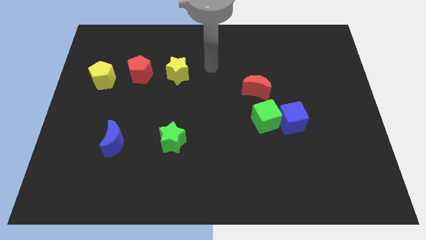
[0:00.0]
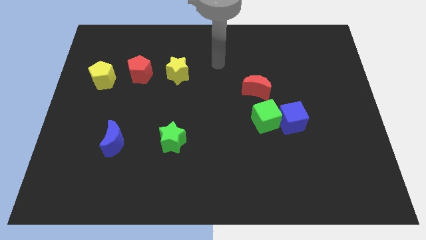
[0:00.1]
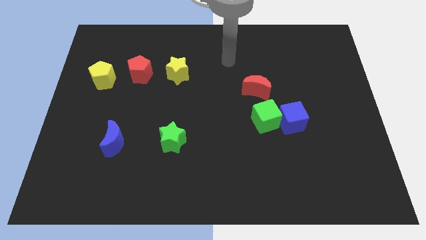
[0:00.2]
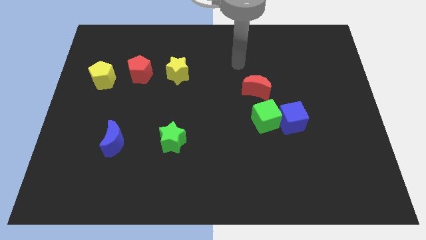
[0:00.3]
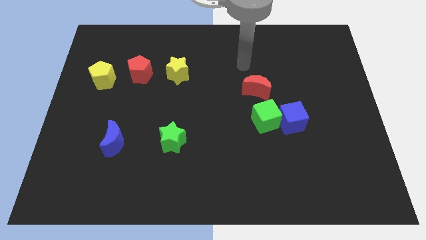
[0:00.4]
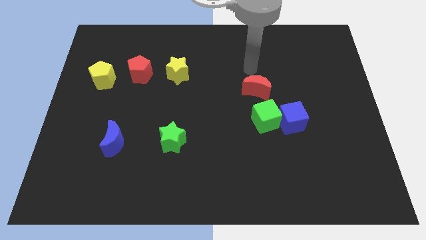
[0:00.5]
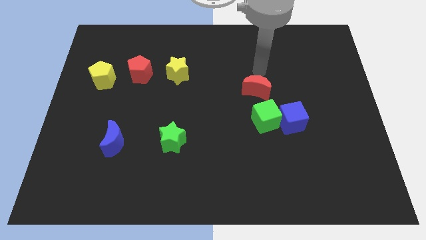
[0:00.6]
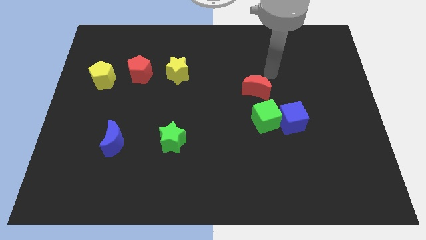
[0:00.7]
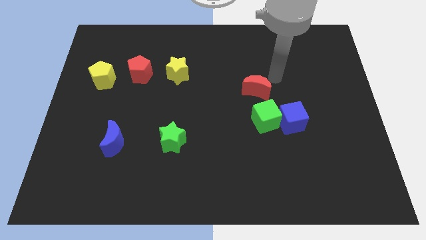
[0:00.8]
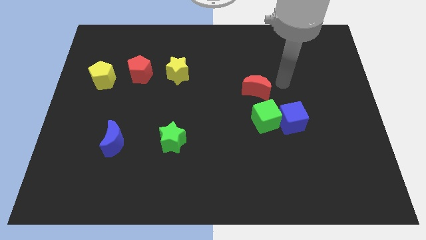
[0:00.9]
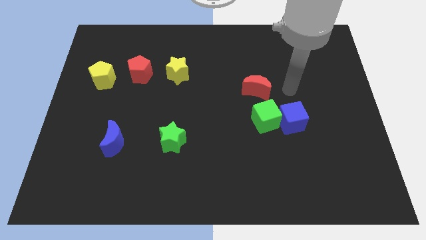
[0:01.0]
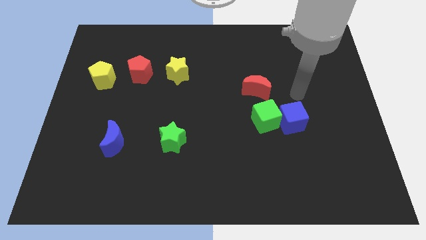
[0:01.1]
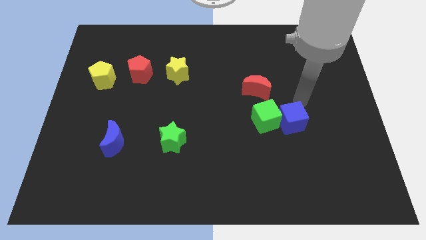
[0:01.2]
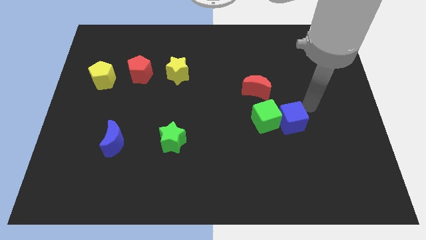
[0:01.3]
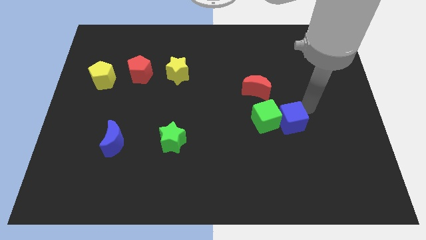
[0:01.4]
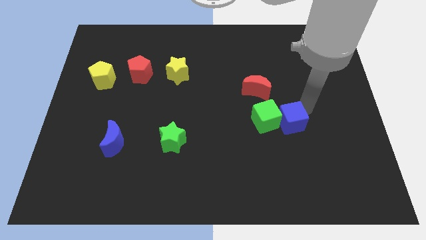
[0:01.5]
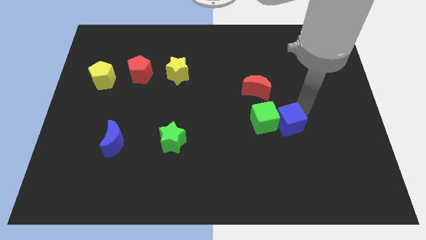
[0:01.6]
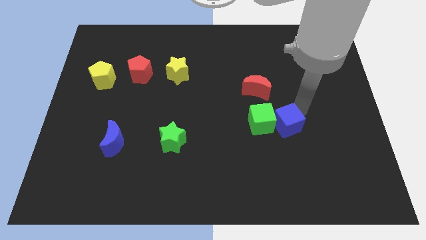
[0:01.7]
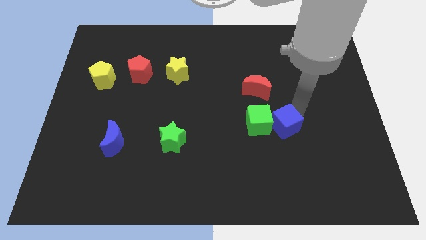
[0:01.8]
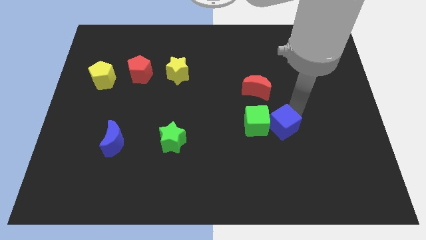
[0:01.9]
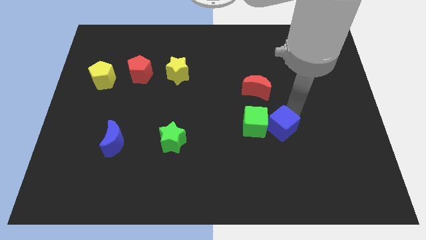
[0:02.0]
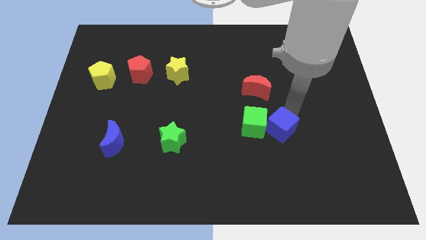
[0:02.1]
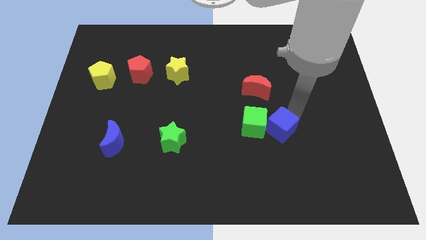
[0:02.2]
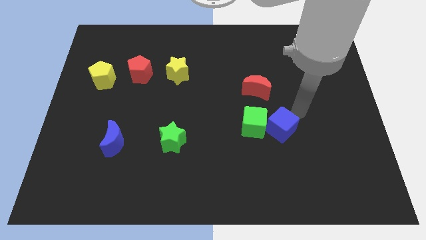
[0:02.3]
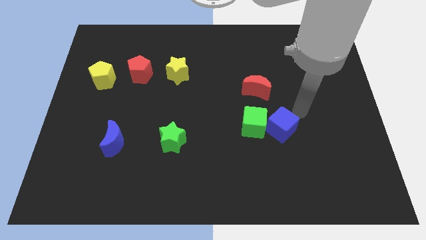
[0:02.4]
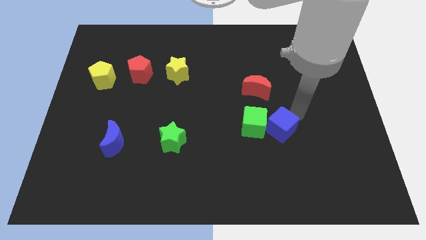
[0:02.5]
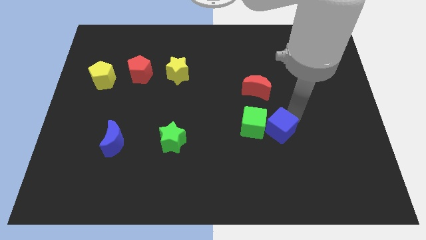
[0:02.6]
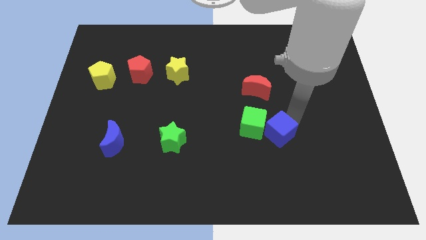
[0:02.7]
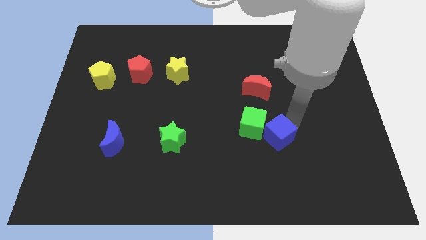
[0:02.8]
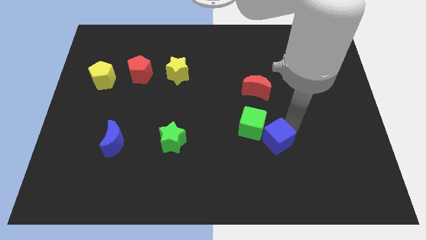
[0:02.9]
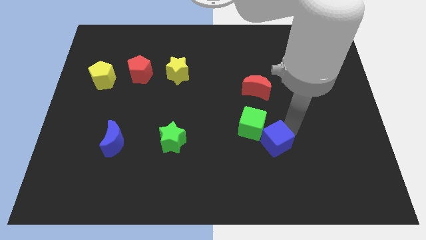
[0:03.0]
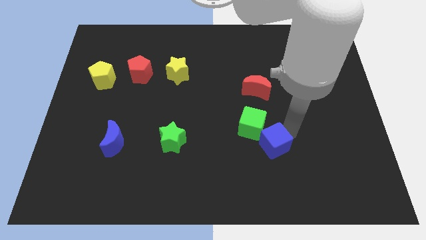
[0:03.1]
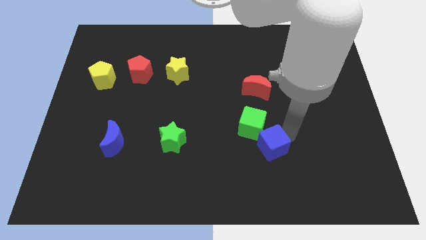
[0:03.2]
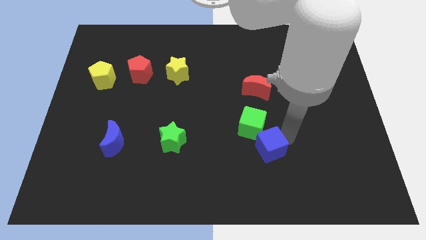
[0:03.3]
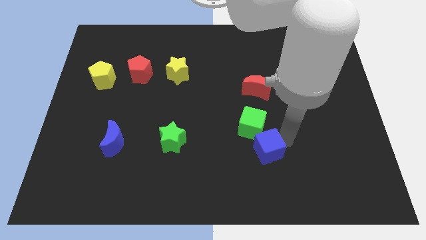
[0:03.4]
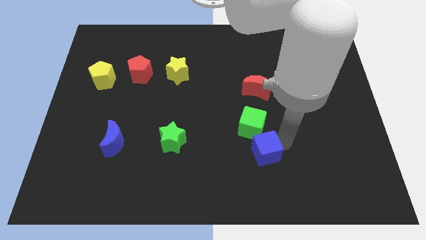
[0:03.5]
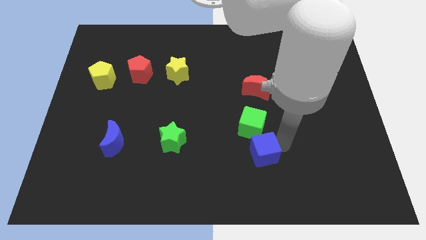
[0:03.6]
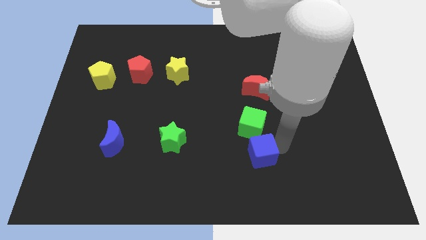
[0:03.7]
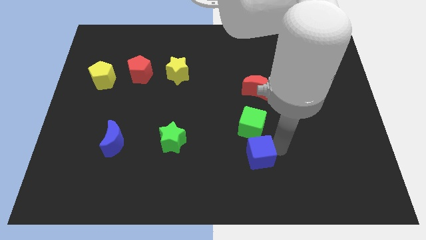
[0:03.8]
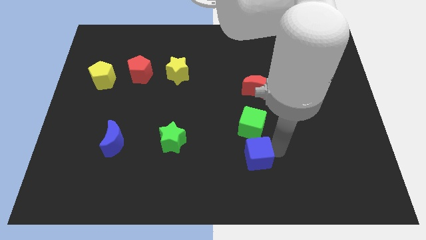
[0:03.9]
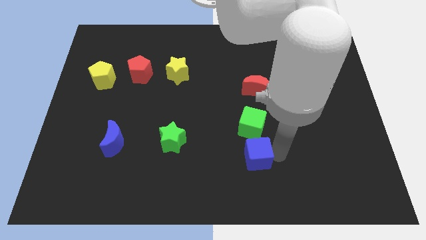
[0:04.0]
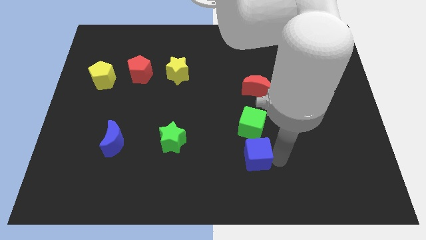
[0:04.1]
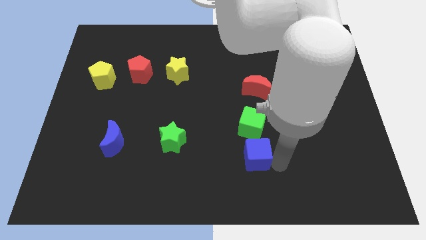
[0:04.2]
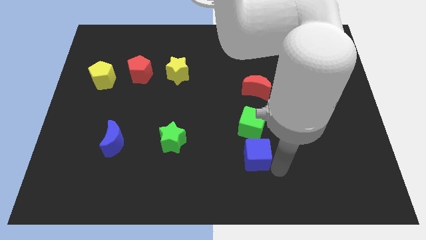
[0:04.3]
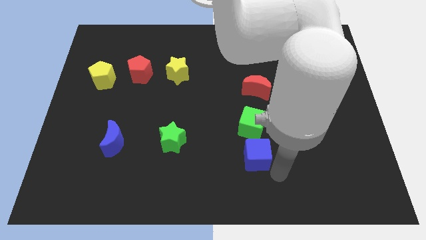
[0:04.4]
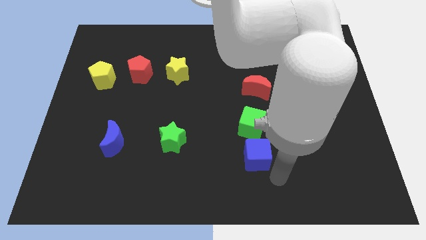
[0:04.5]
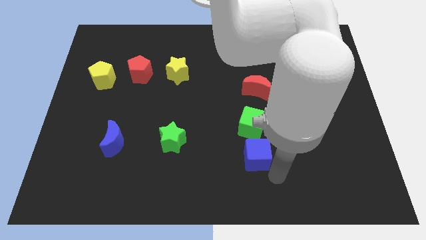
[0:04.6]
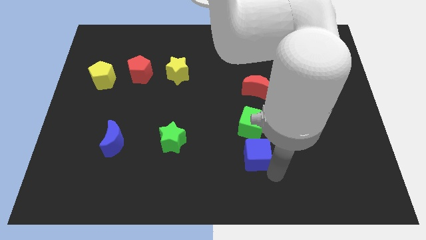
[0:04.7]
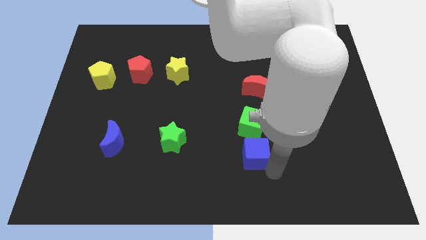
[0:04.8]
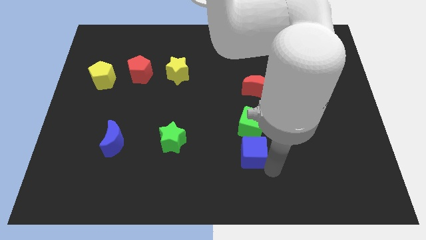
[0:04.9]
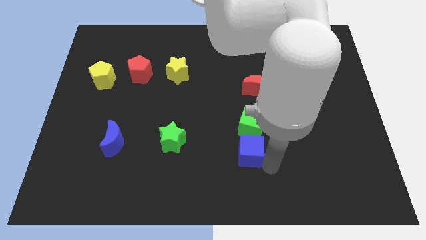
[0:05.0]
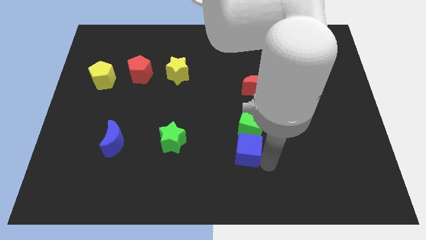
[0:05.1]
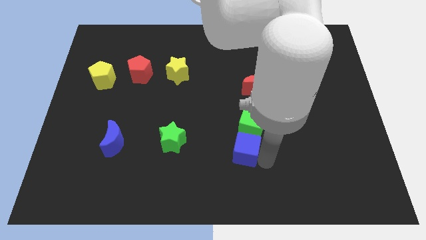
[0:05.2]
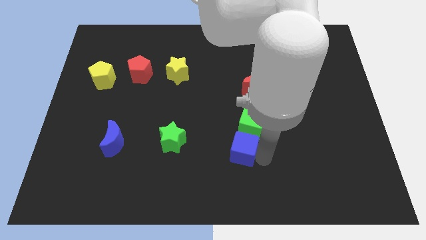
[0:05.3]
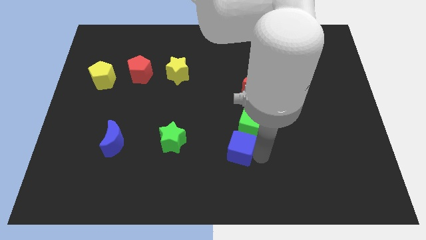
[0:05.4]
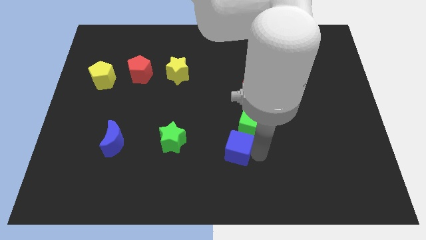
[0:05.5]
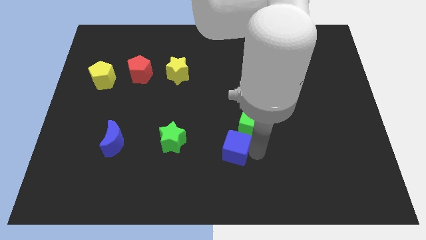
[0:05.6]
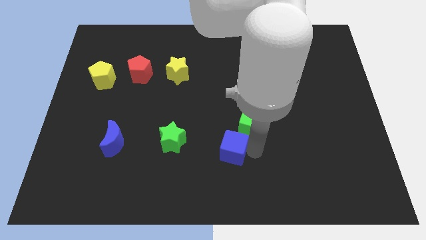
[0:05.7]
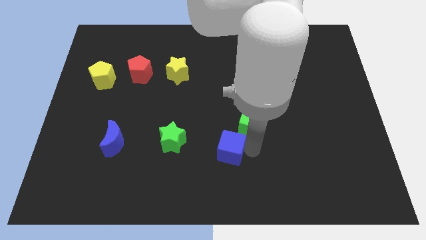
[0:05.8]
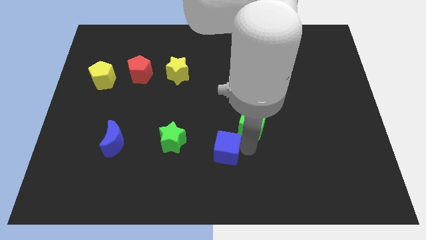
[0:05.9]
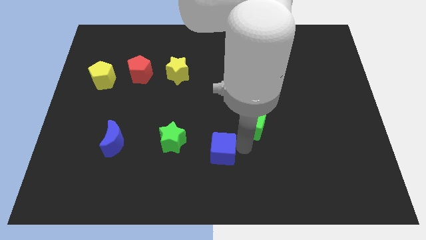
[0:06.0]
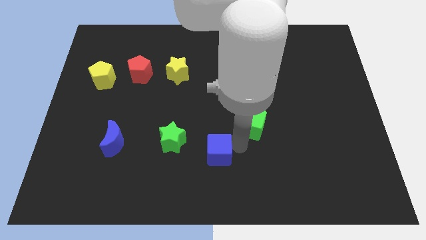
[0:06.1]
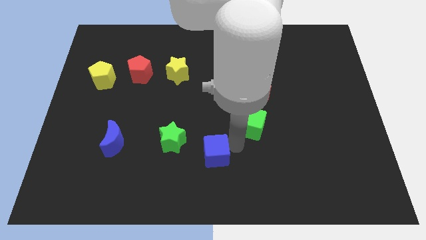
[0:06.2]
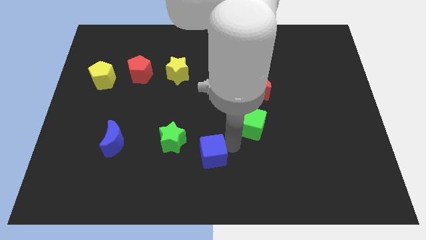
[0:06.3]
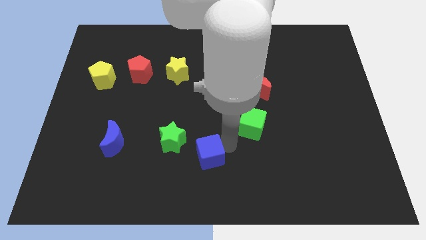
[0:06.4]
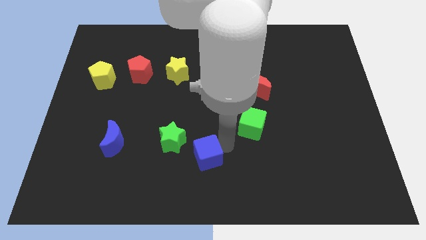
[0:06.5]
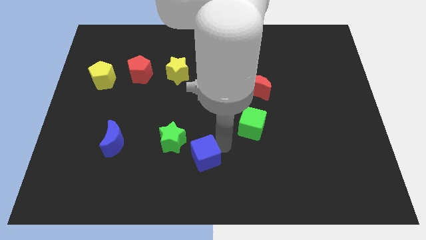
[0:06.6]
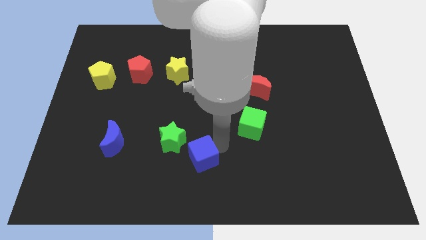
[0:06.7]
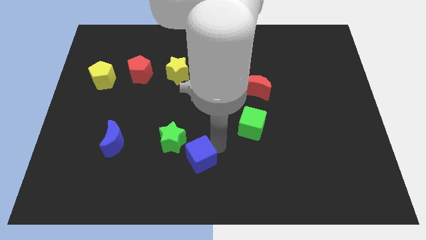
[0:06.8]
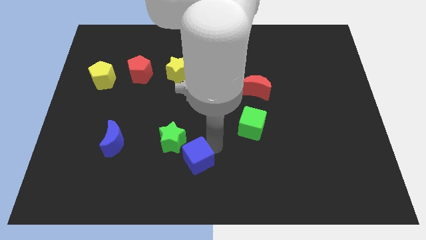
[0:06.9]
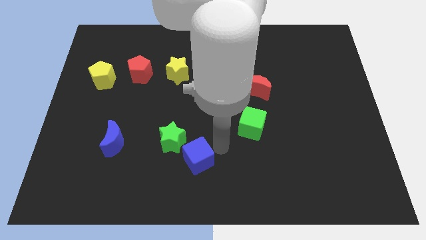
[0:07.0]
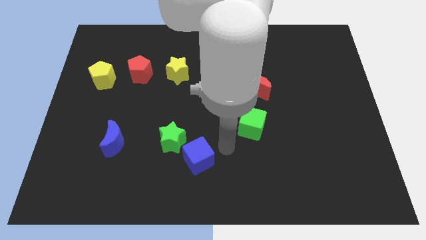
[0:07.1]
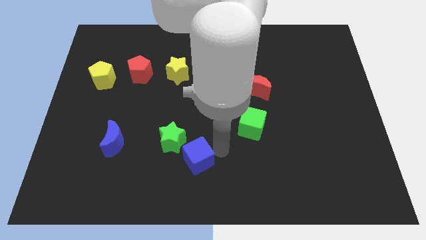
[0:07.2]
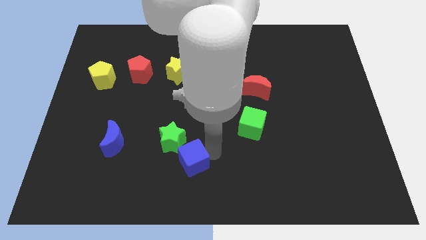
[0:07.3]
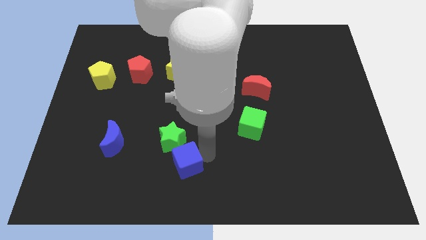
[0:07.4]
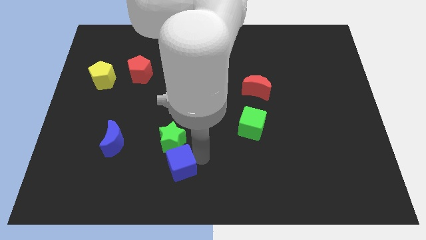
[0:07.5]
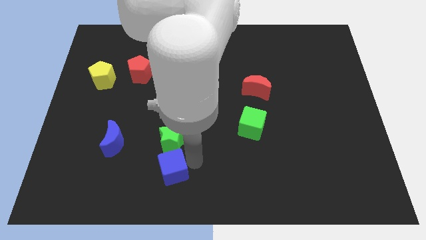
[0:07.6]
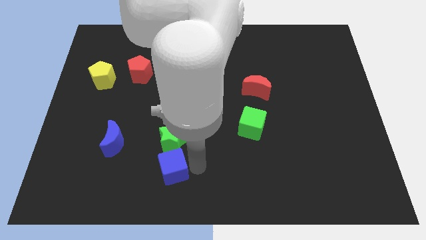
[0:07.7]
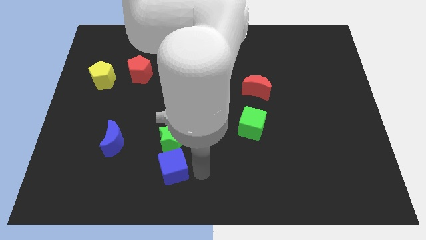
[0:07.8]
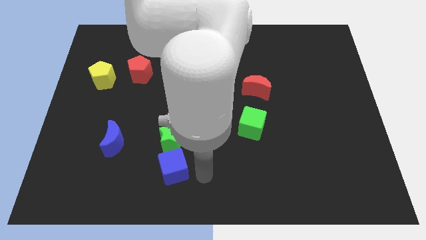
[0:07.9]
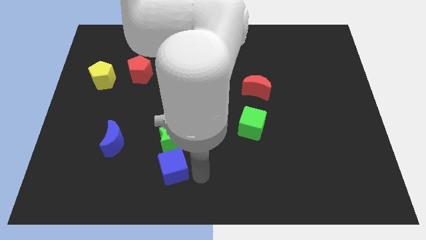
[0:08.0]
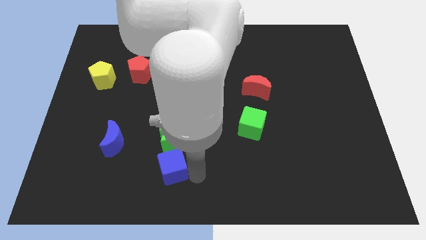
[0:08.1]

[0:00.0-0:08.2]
put the blue cube to the bottom left of the green star

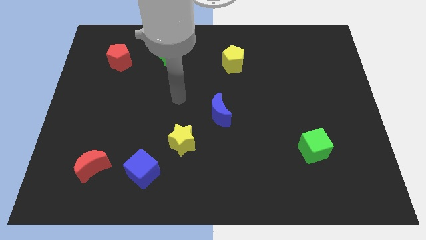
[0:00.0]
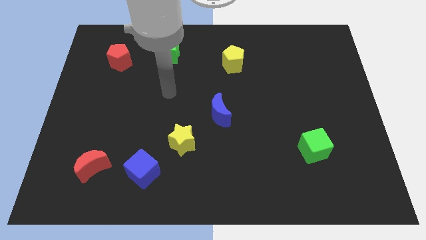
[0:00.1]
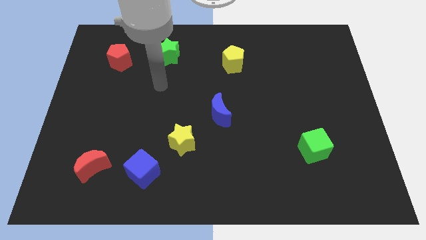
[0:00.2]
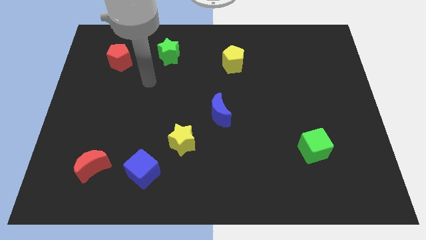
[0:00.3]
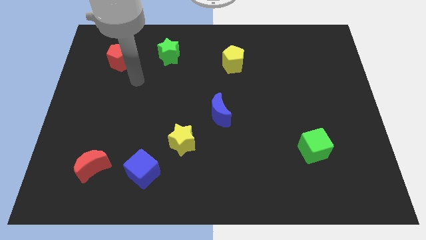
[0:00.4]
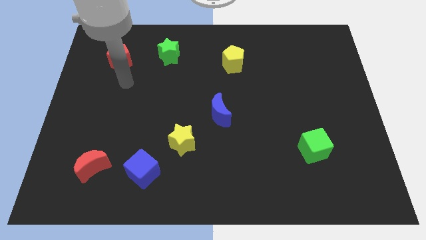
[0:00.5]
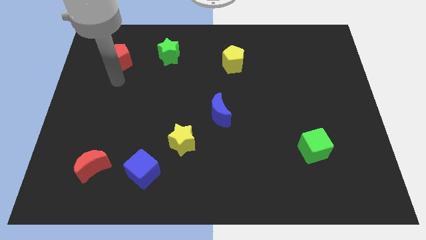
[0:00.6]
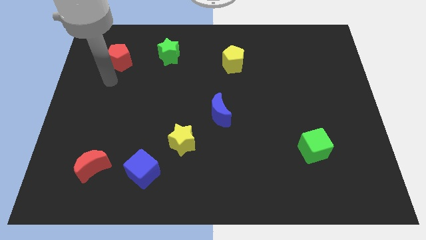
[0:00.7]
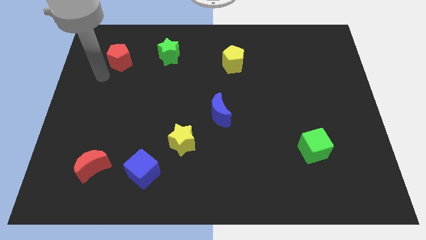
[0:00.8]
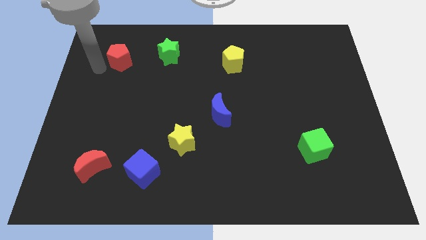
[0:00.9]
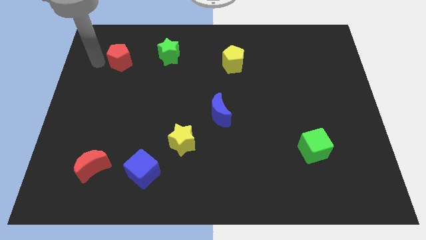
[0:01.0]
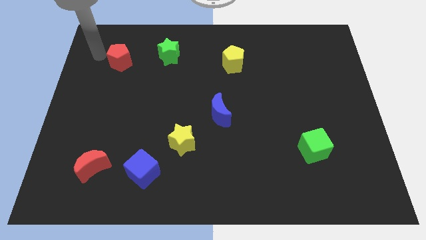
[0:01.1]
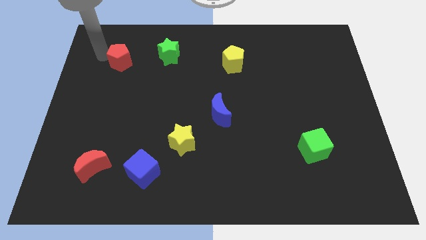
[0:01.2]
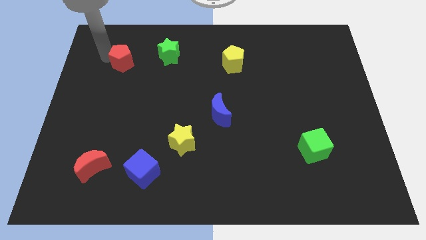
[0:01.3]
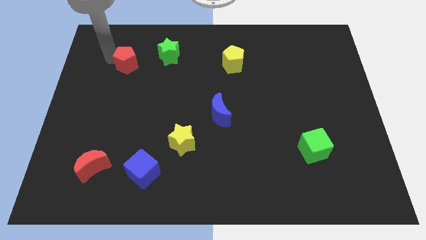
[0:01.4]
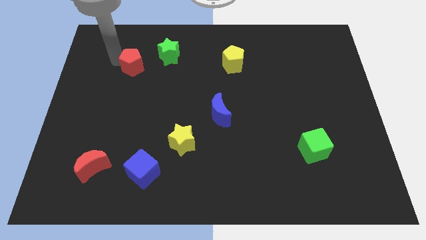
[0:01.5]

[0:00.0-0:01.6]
slide the red pentagon to the bottom left side of the green star
